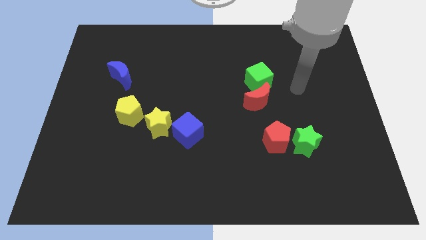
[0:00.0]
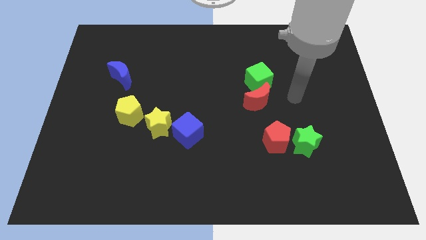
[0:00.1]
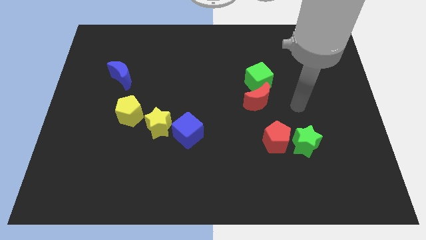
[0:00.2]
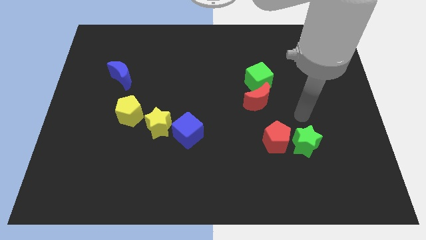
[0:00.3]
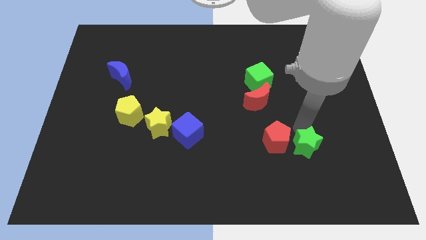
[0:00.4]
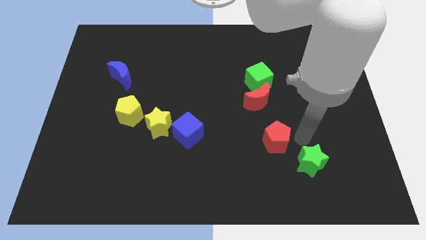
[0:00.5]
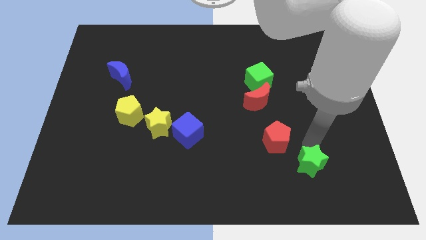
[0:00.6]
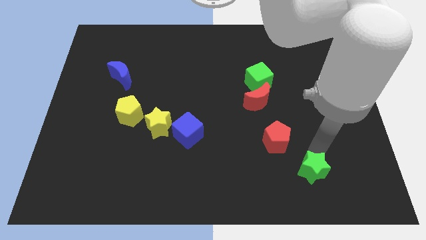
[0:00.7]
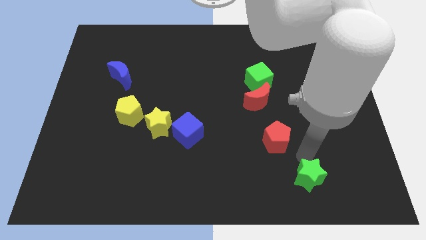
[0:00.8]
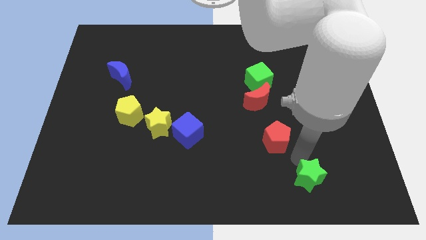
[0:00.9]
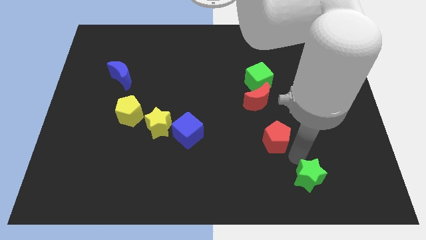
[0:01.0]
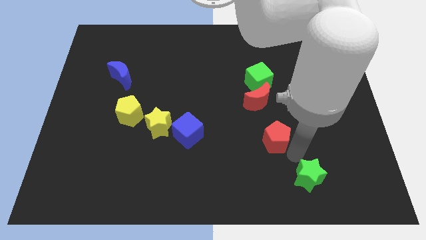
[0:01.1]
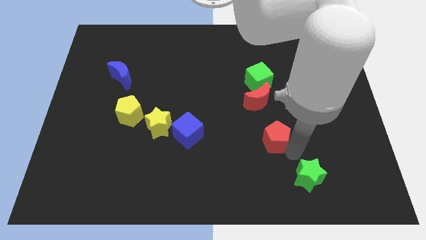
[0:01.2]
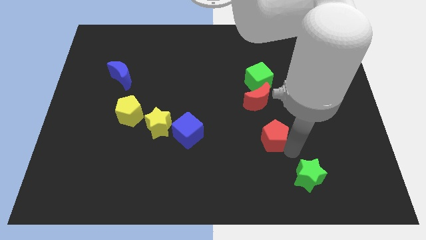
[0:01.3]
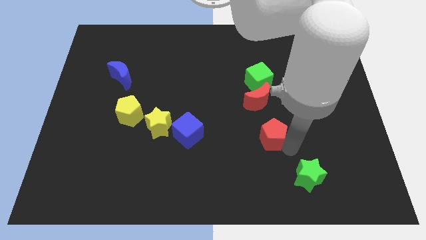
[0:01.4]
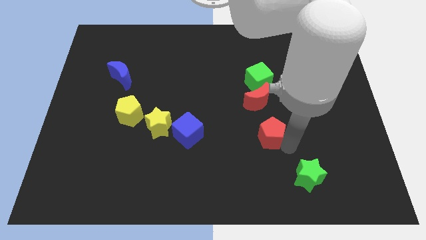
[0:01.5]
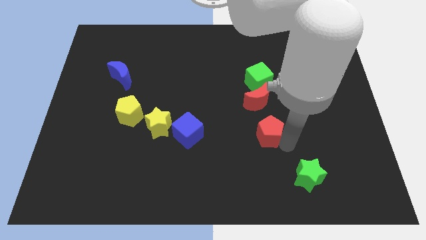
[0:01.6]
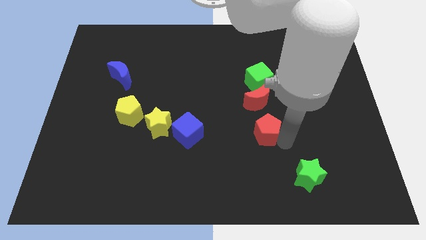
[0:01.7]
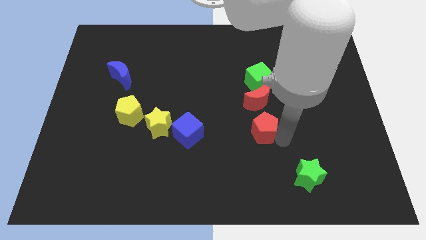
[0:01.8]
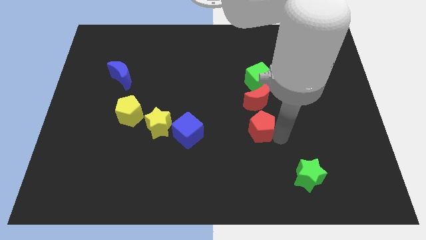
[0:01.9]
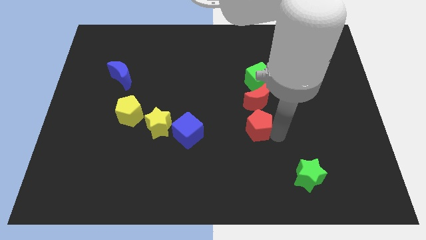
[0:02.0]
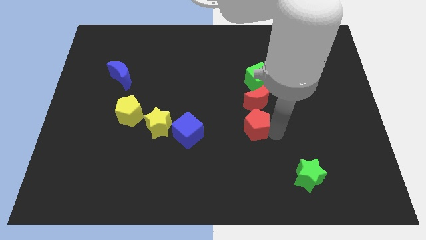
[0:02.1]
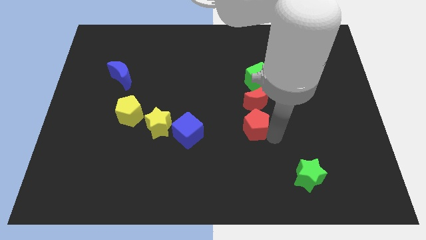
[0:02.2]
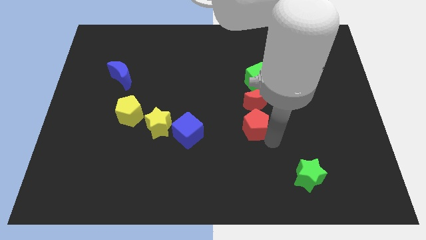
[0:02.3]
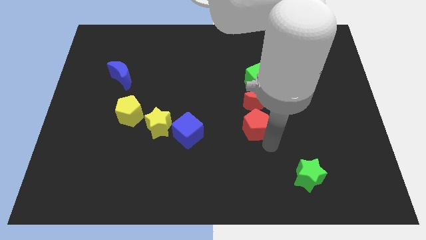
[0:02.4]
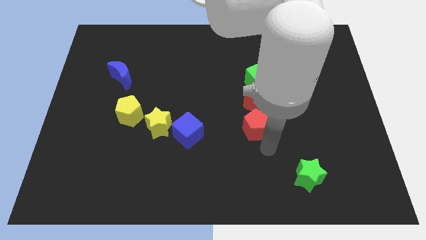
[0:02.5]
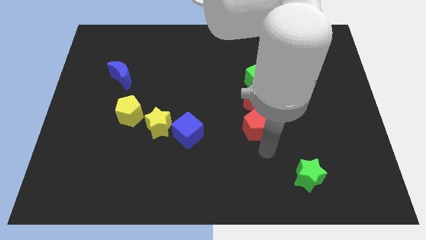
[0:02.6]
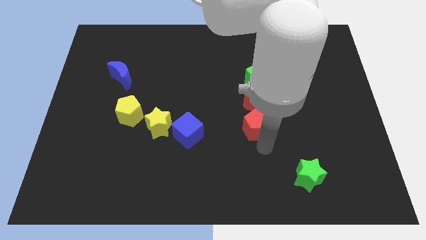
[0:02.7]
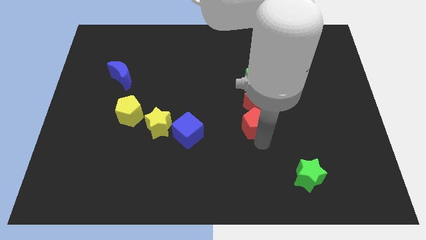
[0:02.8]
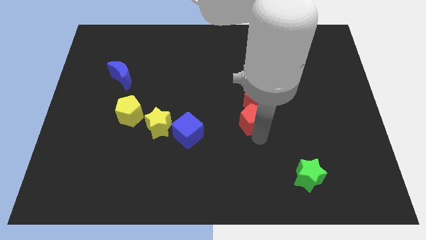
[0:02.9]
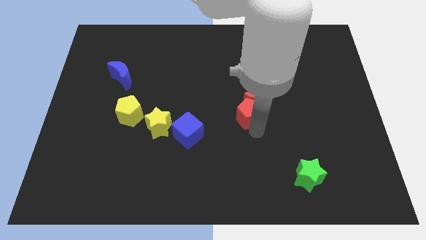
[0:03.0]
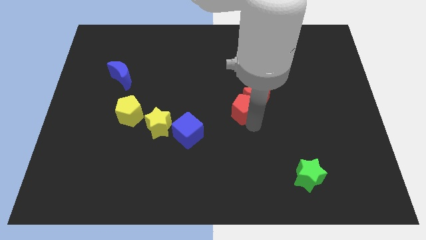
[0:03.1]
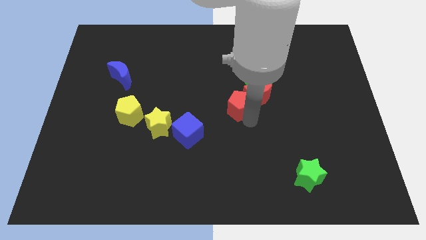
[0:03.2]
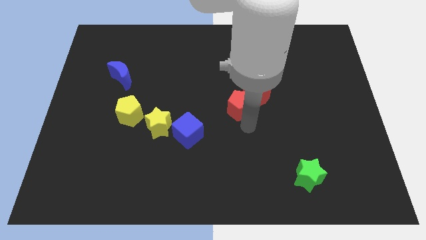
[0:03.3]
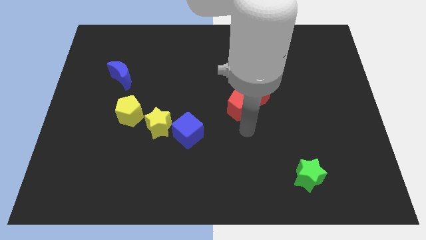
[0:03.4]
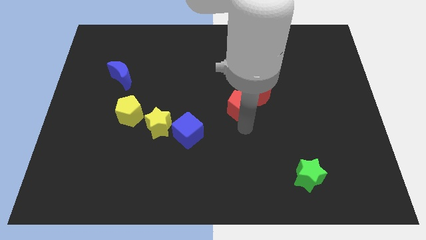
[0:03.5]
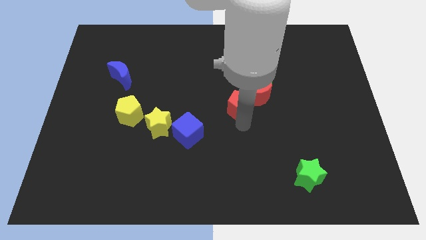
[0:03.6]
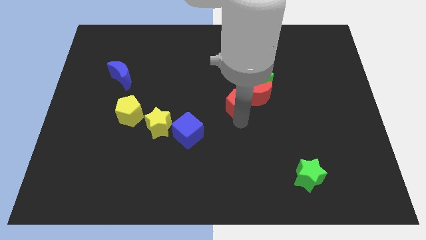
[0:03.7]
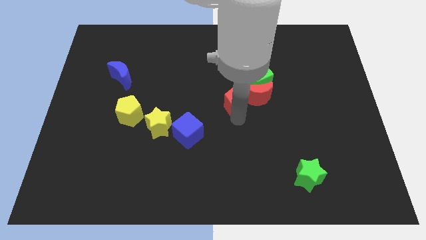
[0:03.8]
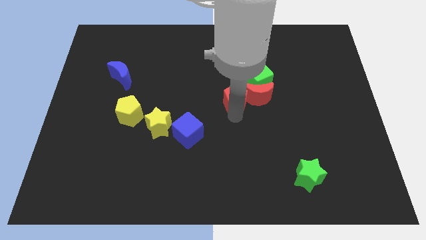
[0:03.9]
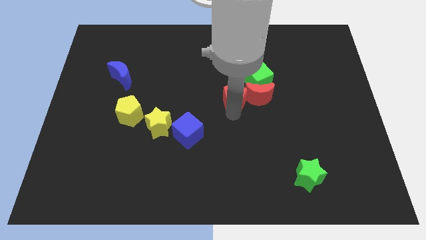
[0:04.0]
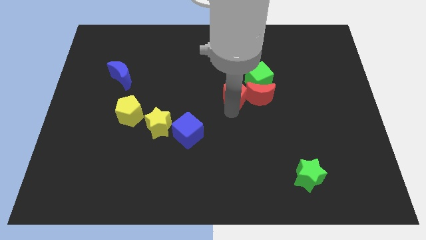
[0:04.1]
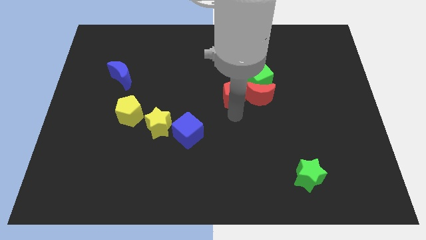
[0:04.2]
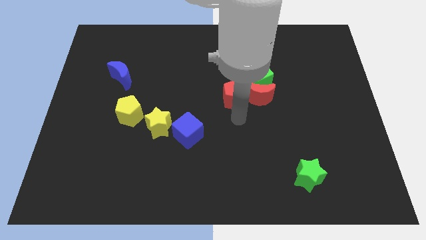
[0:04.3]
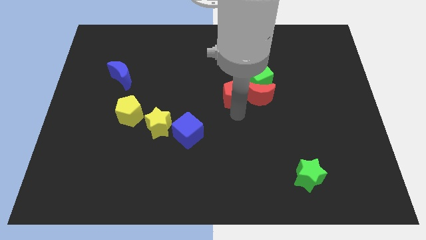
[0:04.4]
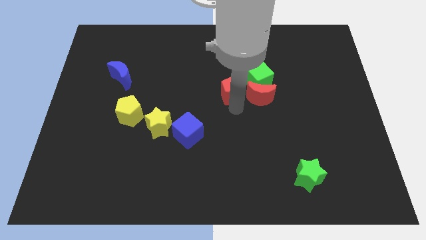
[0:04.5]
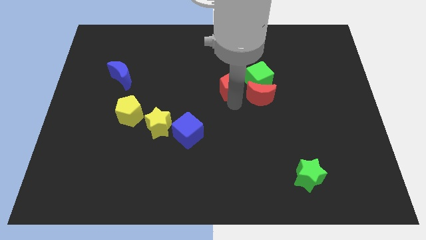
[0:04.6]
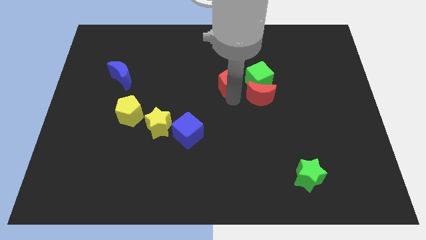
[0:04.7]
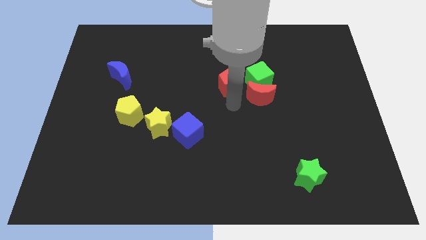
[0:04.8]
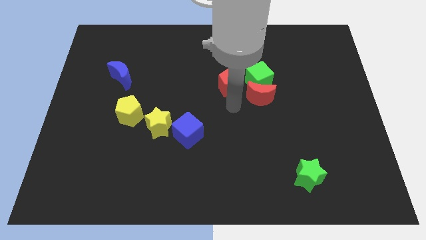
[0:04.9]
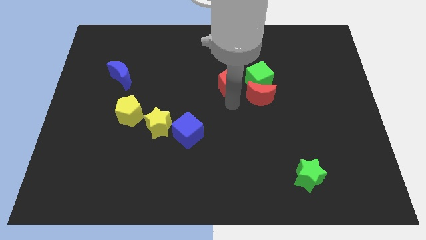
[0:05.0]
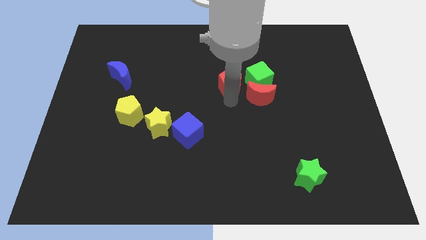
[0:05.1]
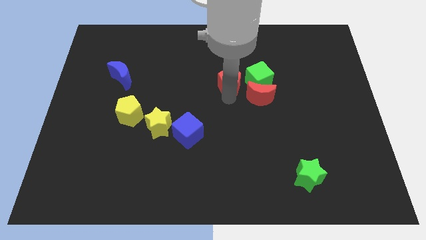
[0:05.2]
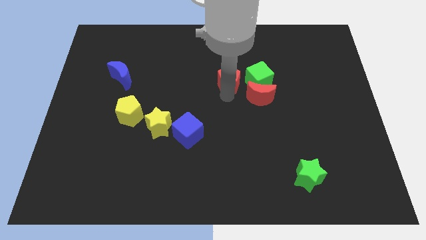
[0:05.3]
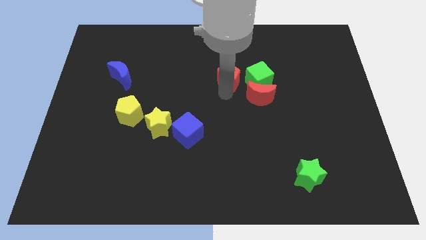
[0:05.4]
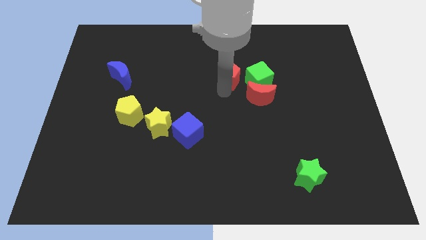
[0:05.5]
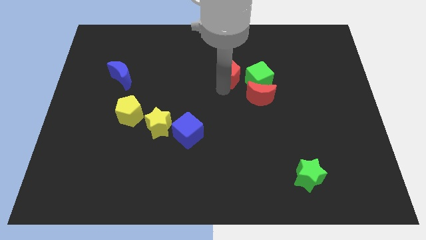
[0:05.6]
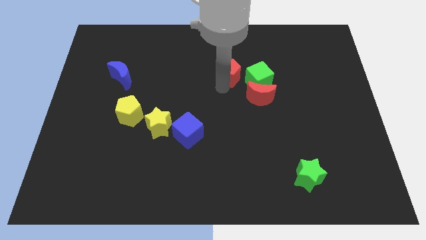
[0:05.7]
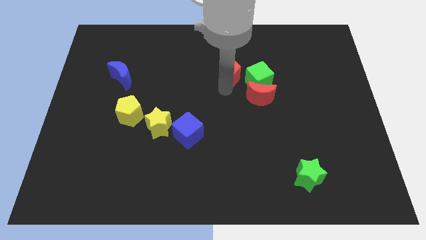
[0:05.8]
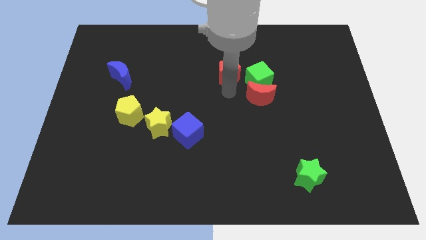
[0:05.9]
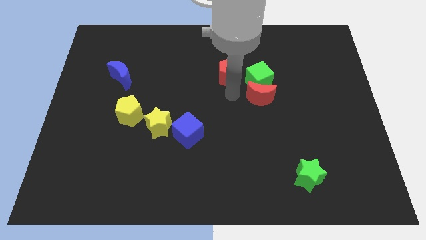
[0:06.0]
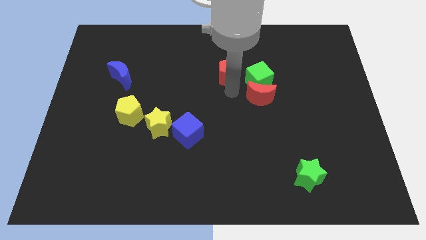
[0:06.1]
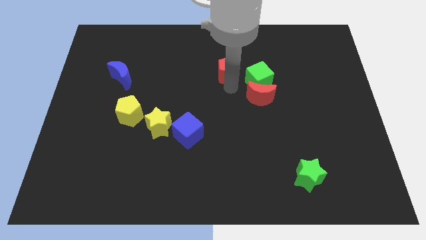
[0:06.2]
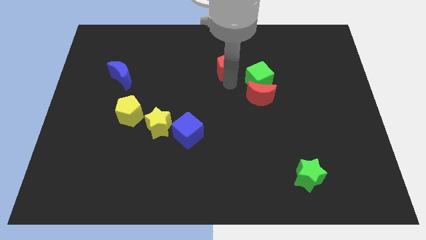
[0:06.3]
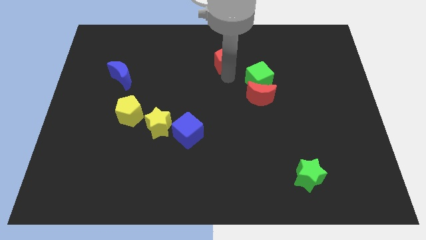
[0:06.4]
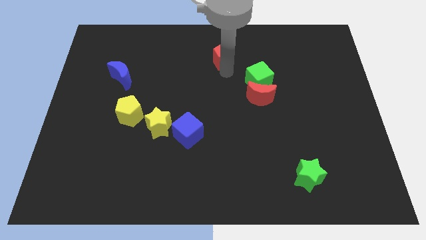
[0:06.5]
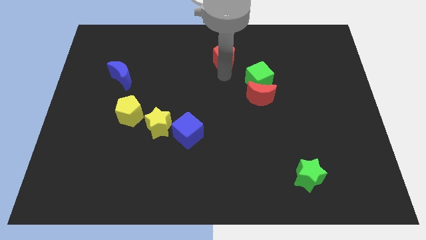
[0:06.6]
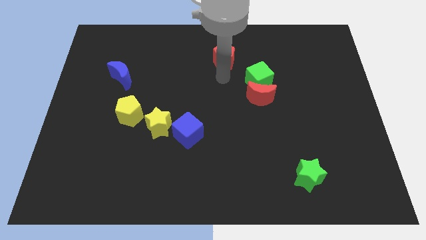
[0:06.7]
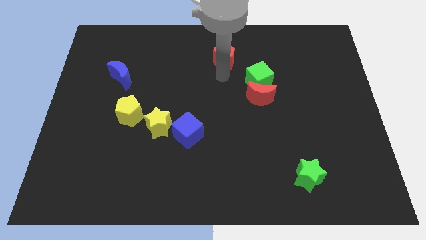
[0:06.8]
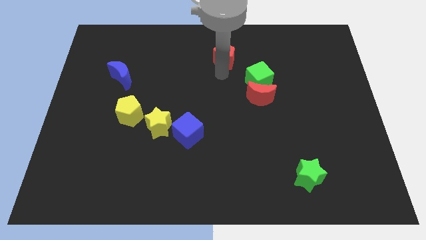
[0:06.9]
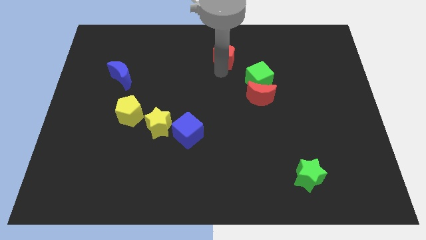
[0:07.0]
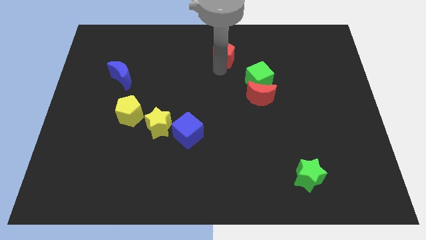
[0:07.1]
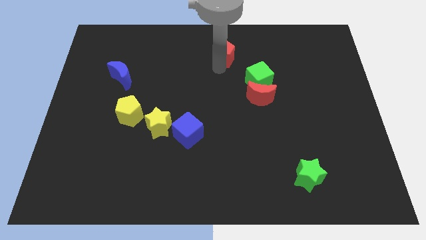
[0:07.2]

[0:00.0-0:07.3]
slide the red pentagon to the towards your base
